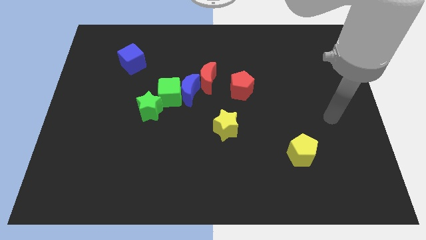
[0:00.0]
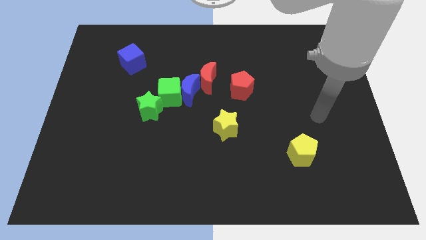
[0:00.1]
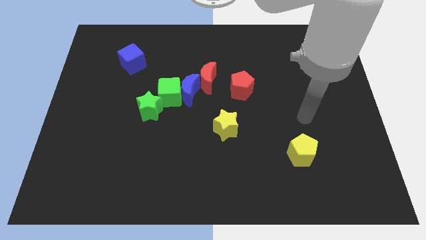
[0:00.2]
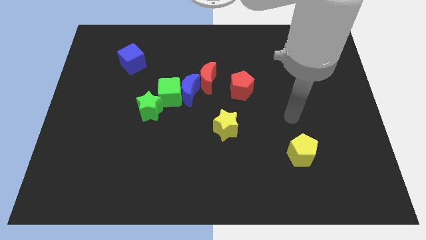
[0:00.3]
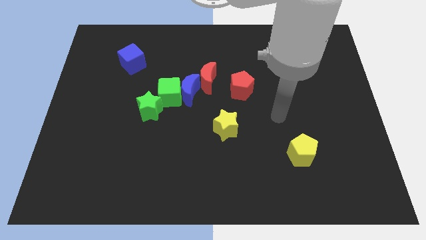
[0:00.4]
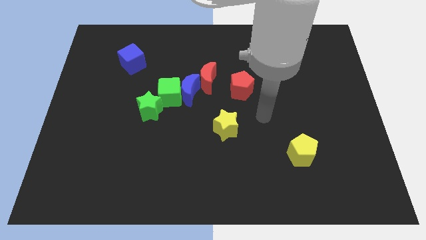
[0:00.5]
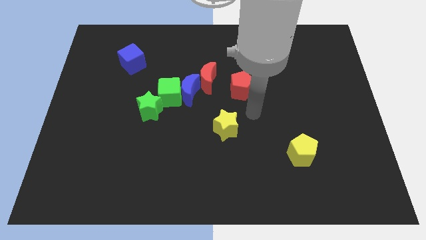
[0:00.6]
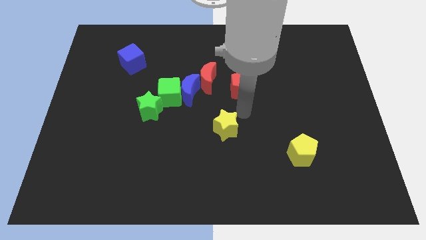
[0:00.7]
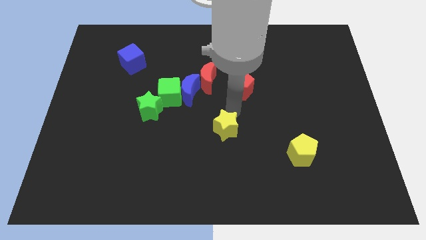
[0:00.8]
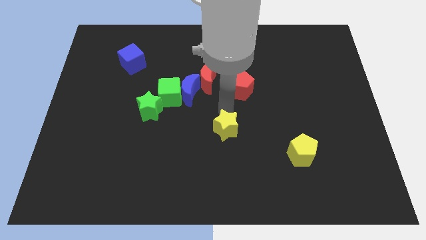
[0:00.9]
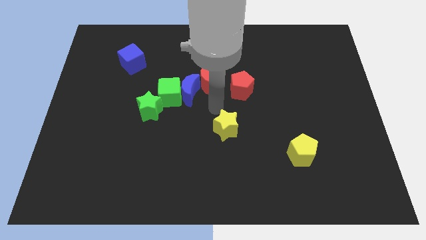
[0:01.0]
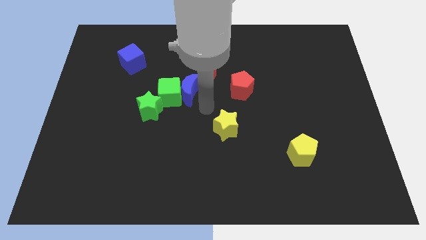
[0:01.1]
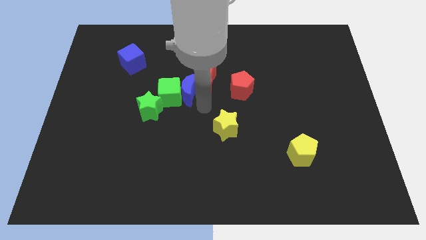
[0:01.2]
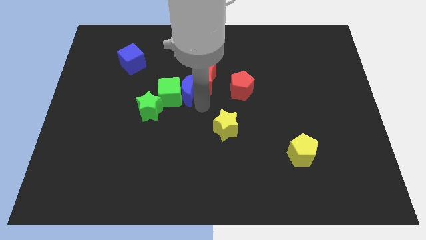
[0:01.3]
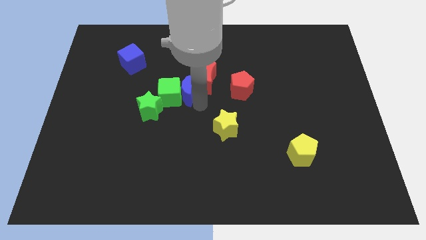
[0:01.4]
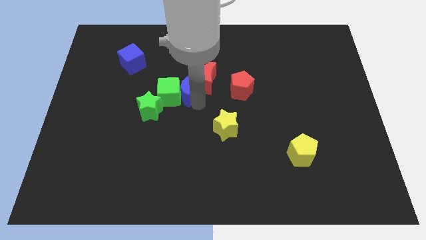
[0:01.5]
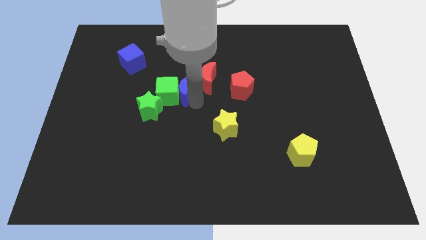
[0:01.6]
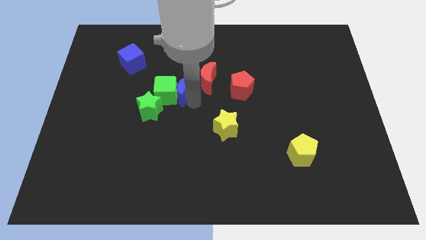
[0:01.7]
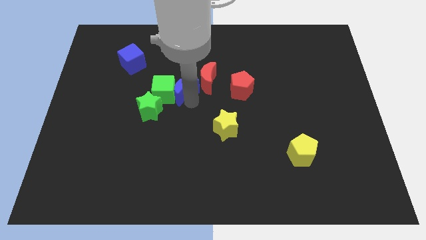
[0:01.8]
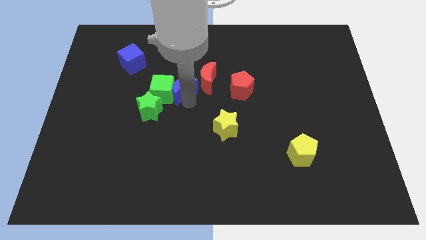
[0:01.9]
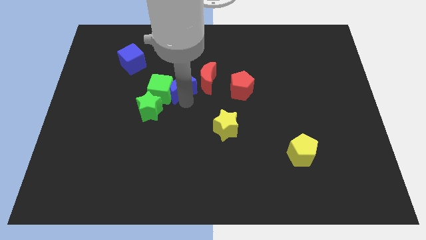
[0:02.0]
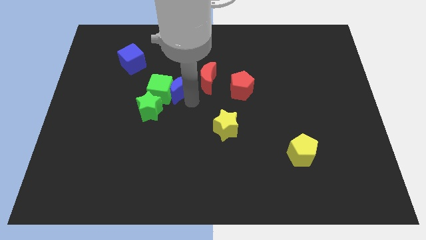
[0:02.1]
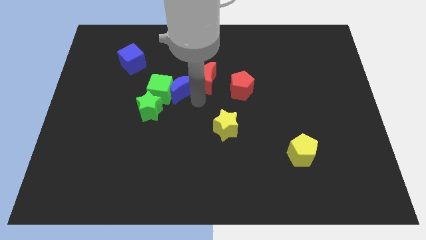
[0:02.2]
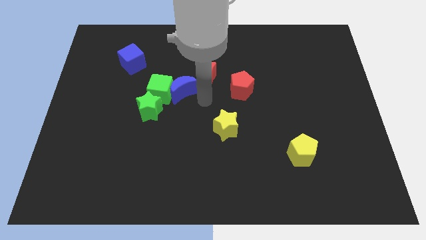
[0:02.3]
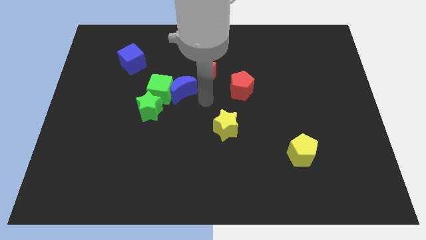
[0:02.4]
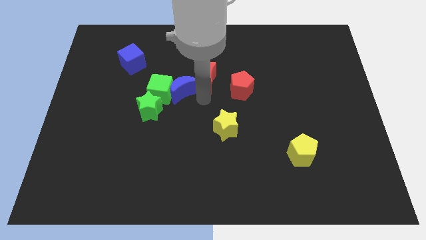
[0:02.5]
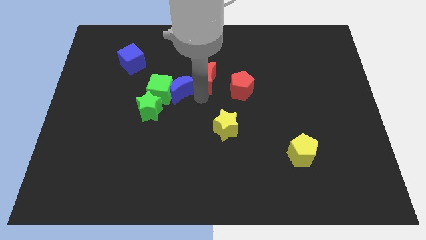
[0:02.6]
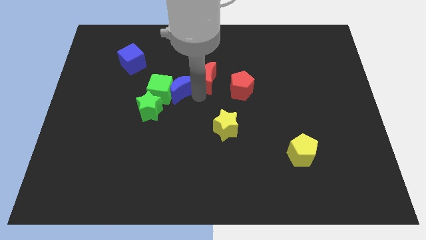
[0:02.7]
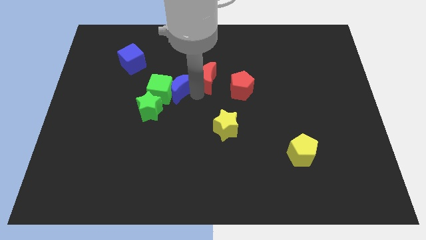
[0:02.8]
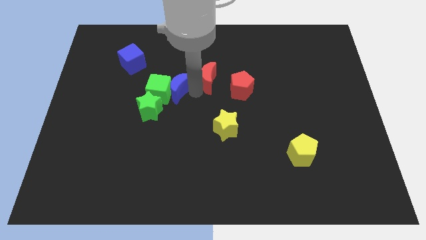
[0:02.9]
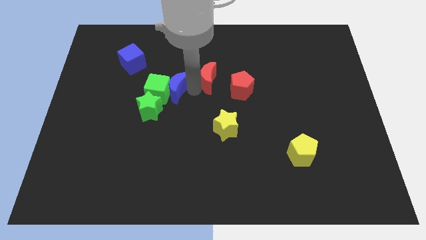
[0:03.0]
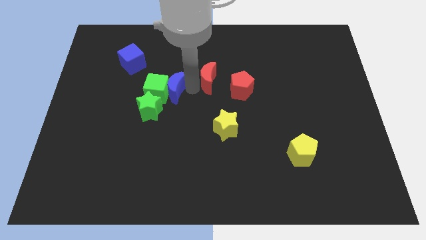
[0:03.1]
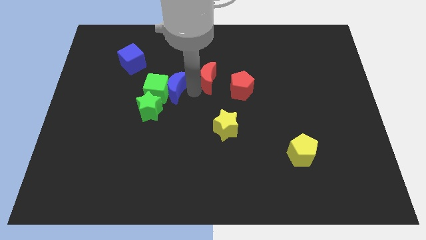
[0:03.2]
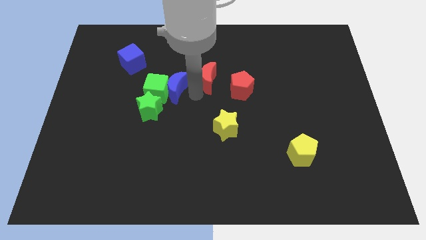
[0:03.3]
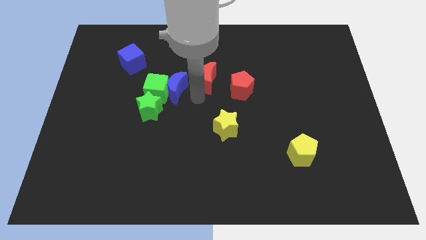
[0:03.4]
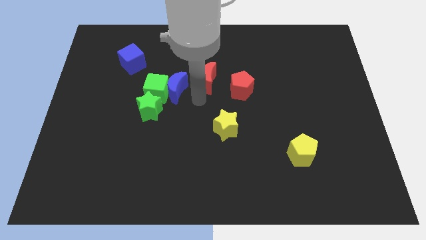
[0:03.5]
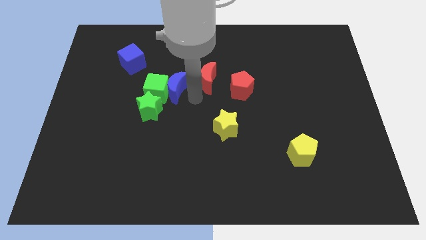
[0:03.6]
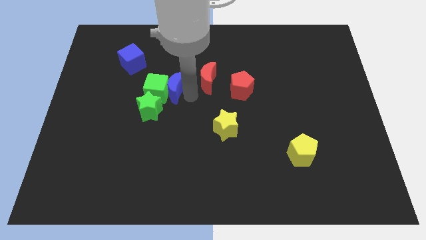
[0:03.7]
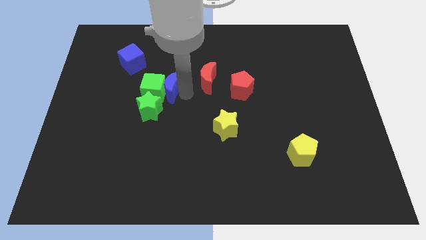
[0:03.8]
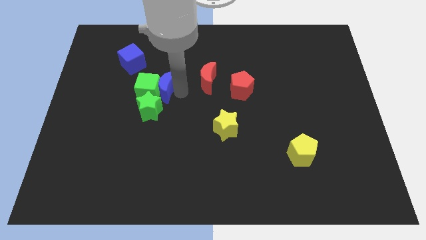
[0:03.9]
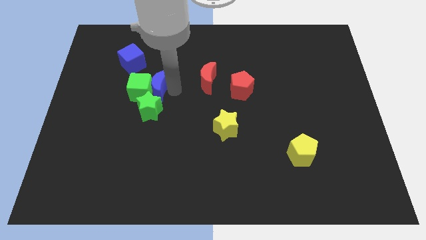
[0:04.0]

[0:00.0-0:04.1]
slightly push the blue moon to the left

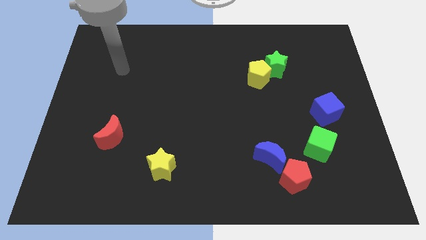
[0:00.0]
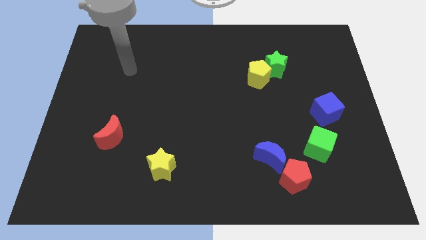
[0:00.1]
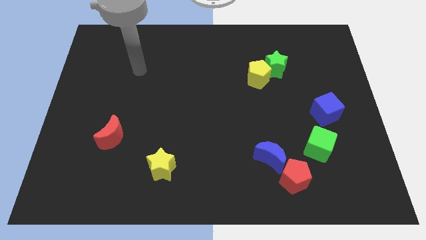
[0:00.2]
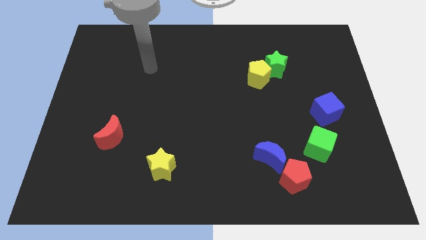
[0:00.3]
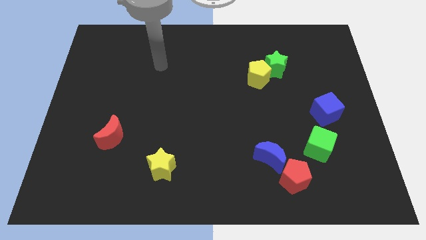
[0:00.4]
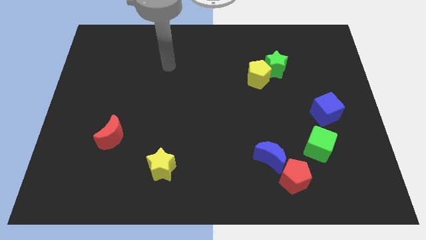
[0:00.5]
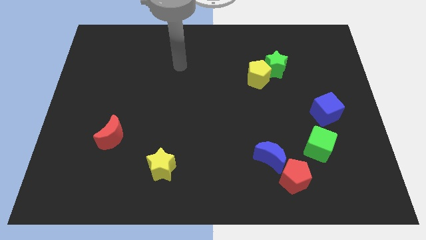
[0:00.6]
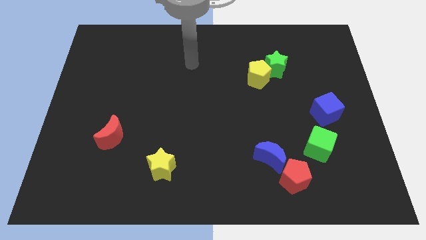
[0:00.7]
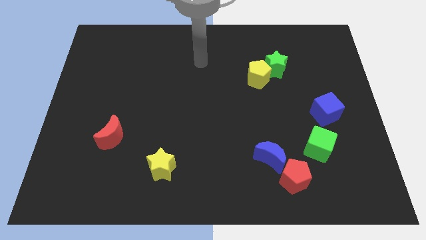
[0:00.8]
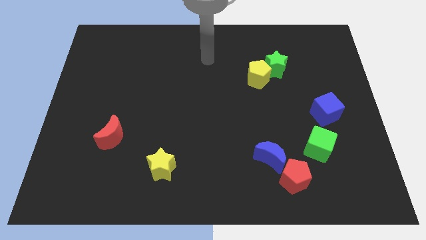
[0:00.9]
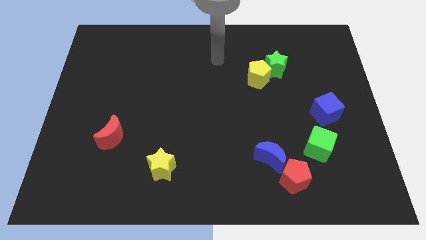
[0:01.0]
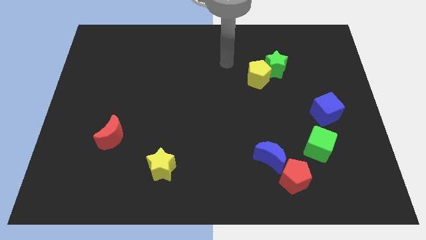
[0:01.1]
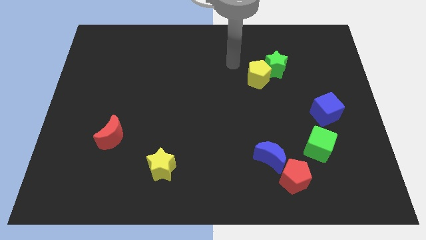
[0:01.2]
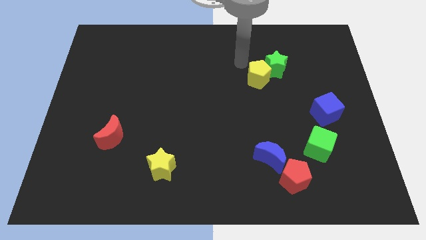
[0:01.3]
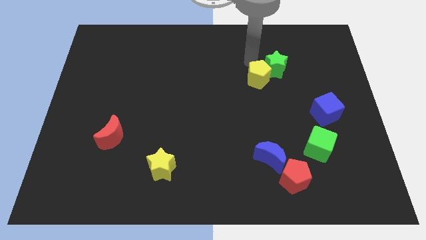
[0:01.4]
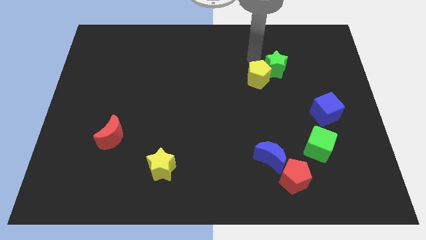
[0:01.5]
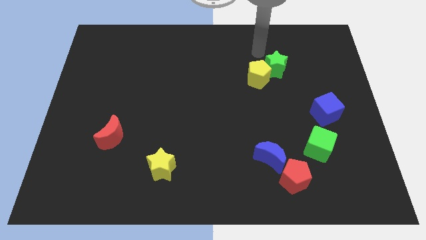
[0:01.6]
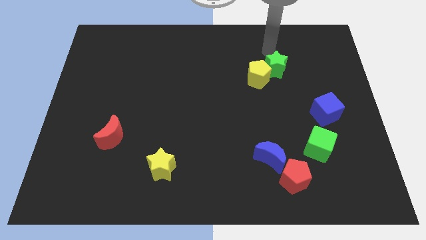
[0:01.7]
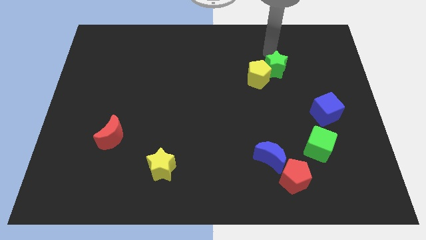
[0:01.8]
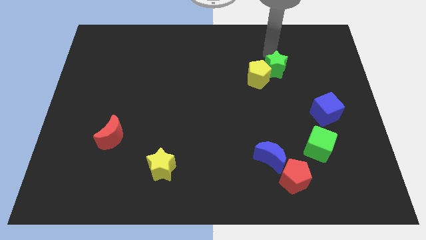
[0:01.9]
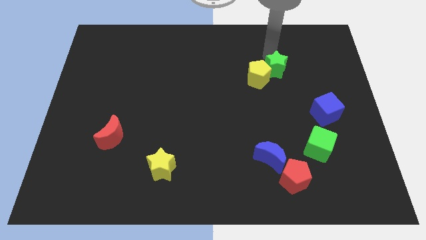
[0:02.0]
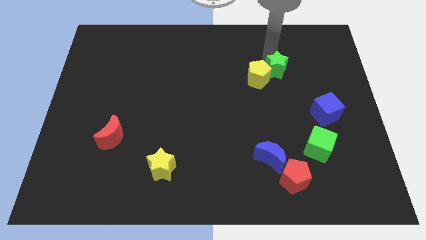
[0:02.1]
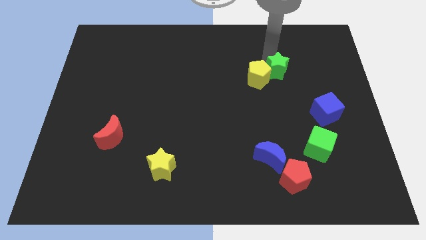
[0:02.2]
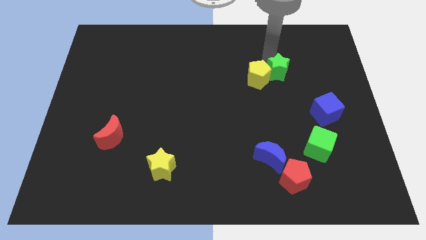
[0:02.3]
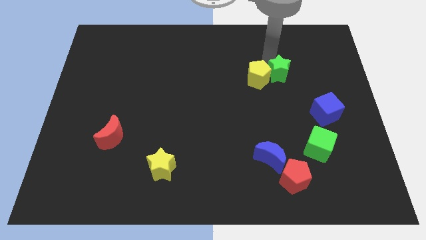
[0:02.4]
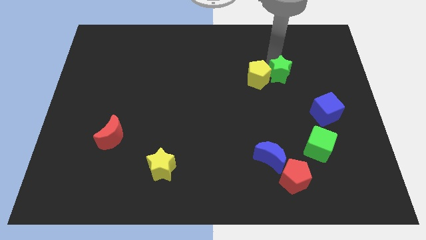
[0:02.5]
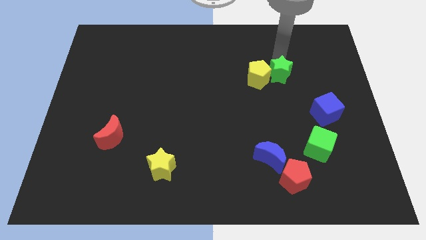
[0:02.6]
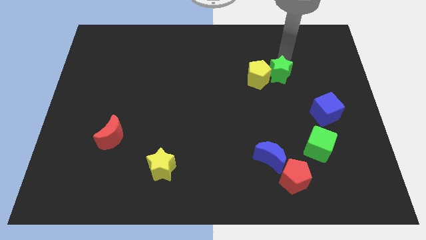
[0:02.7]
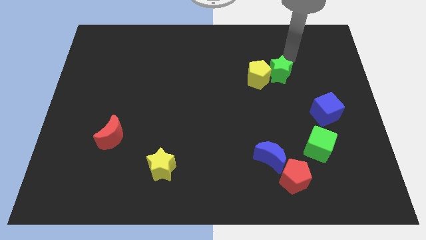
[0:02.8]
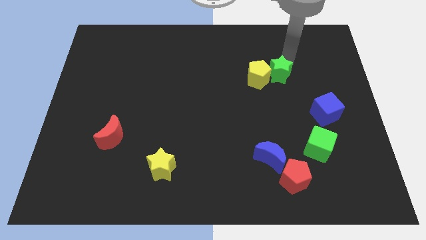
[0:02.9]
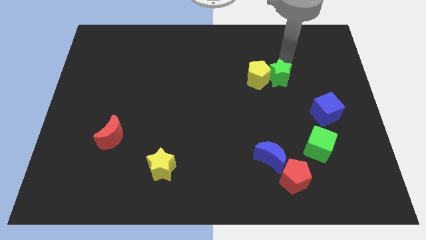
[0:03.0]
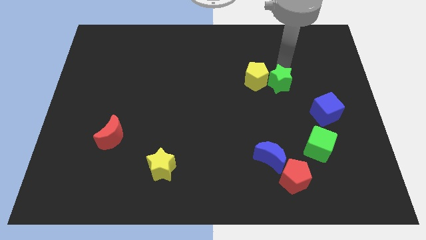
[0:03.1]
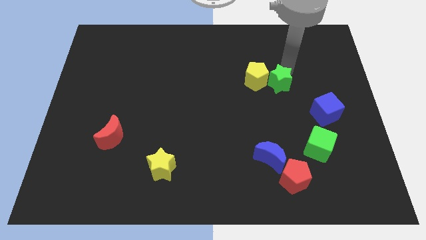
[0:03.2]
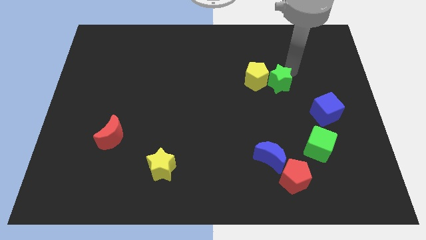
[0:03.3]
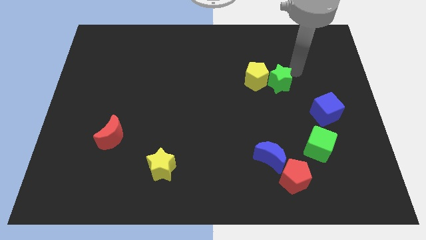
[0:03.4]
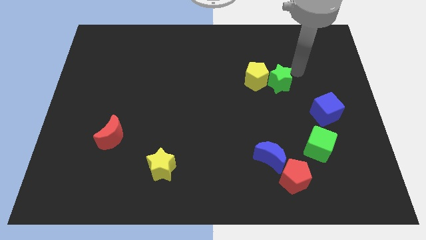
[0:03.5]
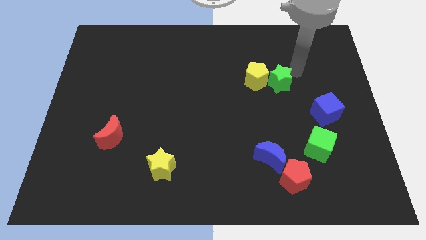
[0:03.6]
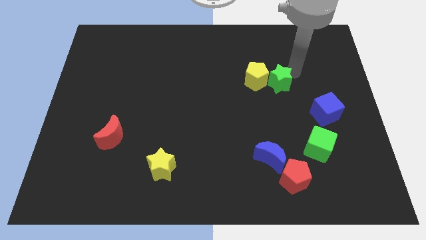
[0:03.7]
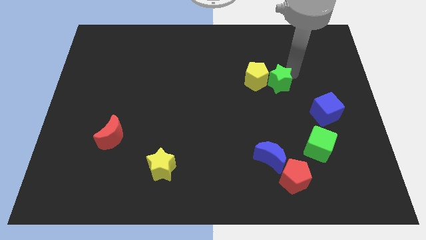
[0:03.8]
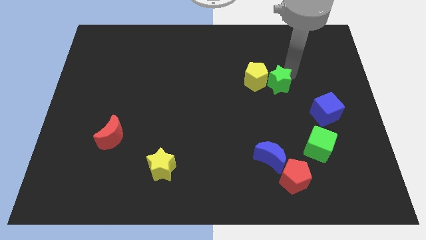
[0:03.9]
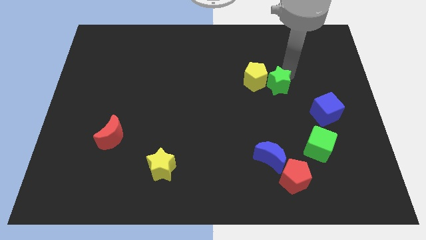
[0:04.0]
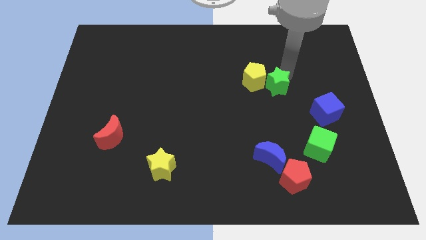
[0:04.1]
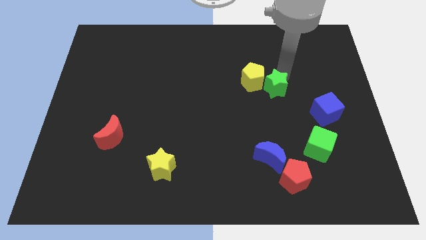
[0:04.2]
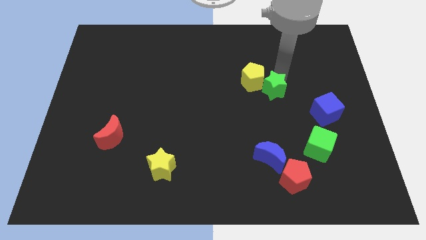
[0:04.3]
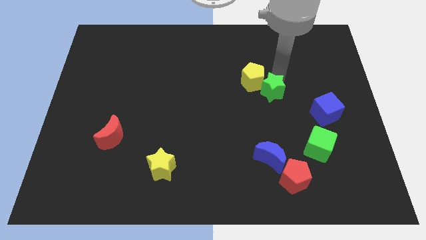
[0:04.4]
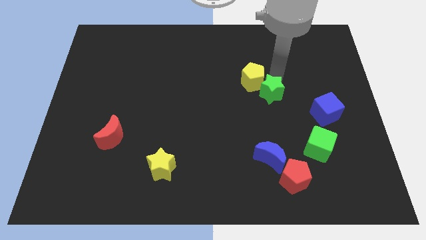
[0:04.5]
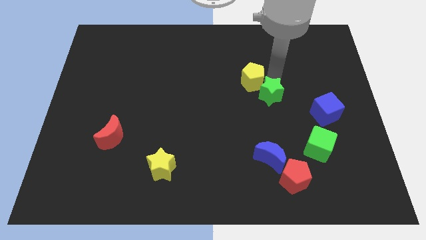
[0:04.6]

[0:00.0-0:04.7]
slightly move the green star down and left
